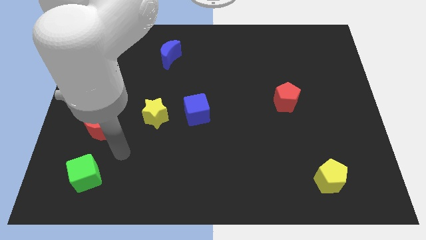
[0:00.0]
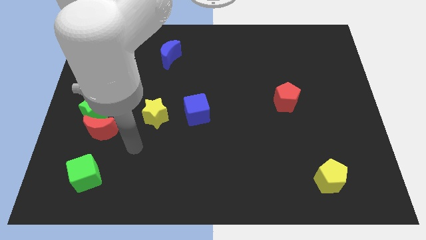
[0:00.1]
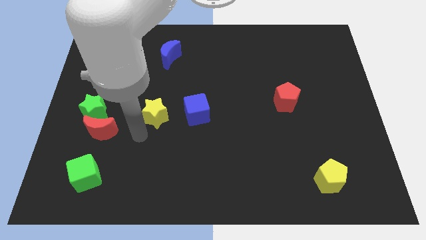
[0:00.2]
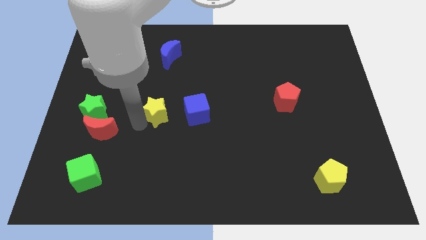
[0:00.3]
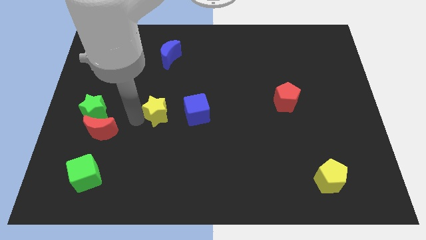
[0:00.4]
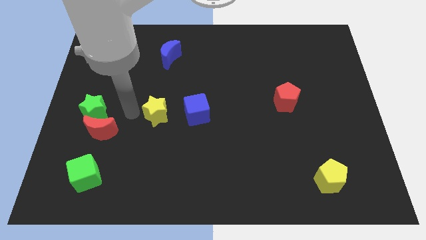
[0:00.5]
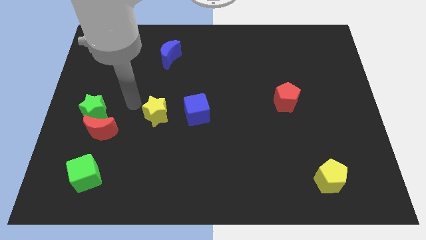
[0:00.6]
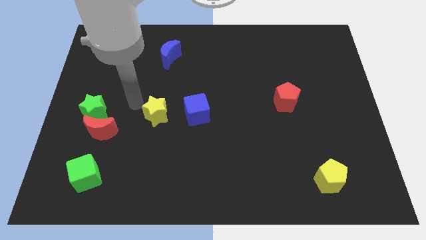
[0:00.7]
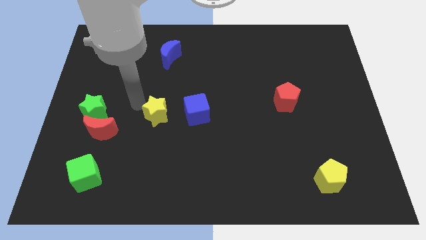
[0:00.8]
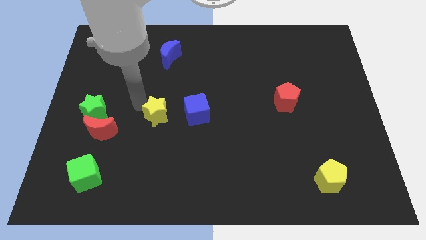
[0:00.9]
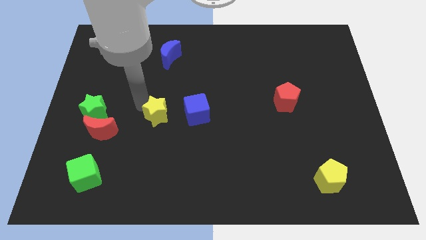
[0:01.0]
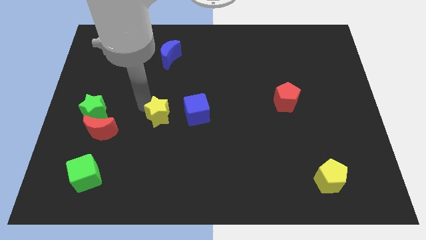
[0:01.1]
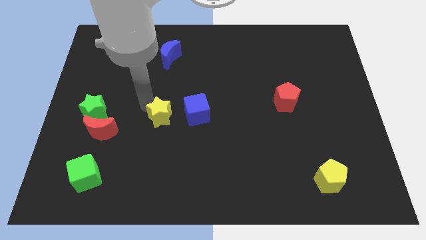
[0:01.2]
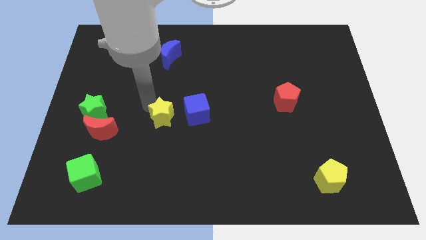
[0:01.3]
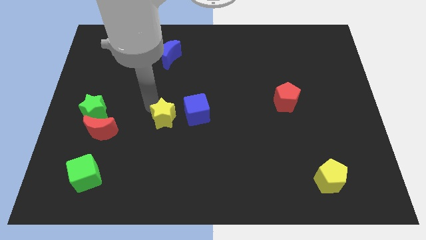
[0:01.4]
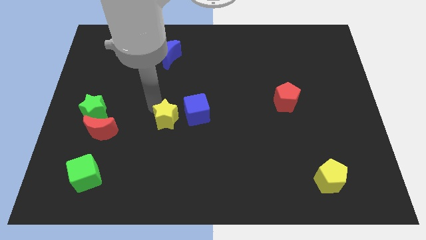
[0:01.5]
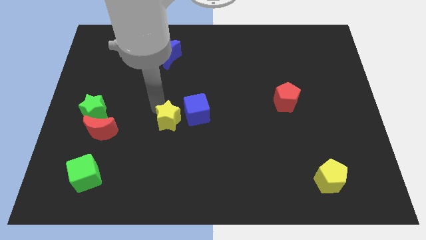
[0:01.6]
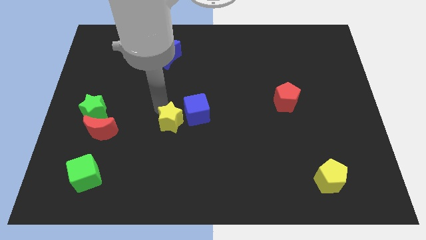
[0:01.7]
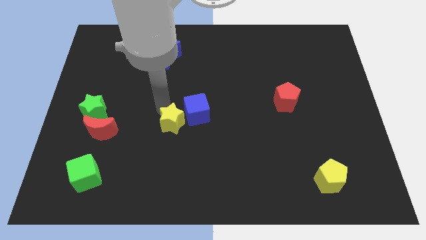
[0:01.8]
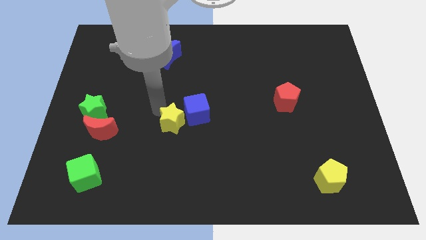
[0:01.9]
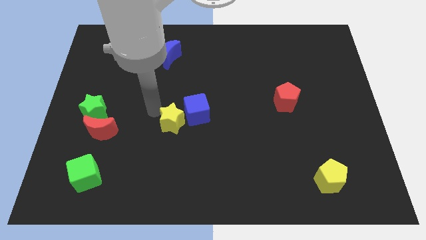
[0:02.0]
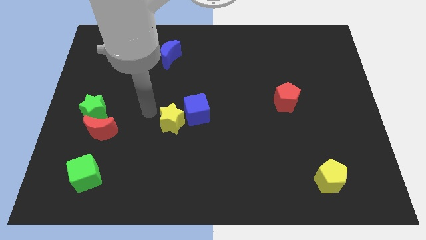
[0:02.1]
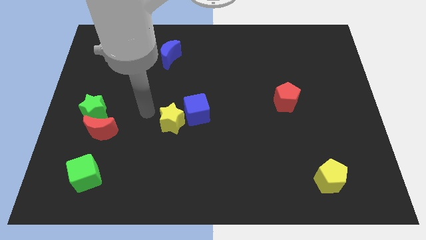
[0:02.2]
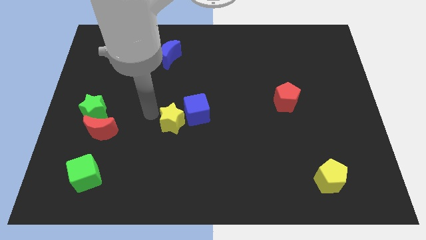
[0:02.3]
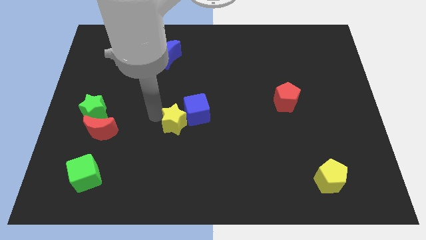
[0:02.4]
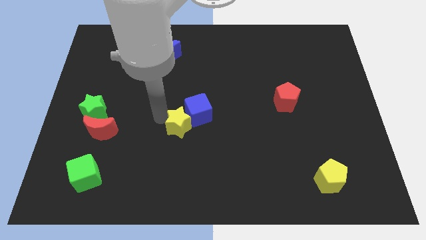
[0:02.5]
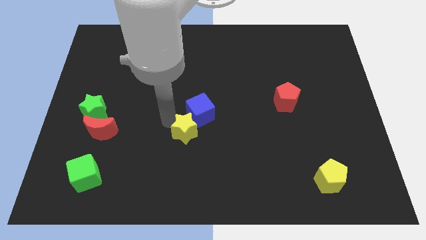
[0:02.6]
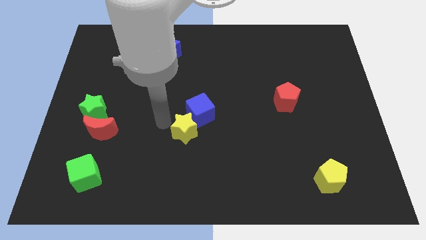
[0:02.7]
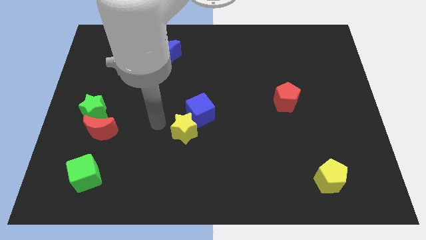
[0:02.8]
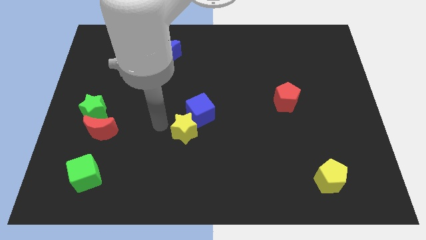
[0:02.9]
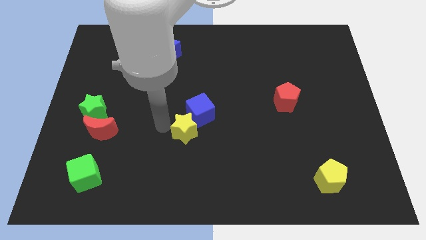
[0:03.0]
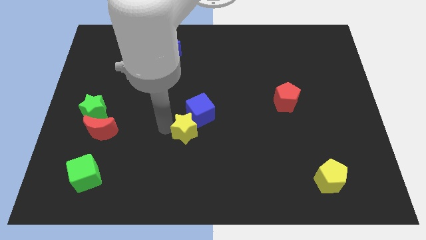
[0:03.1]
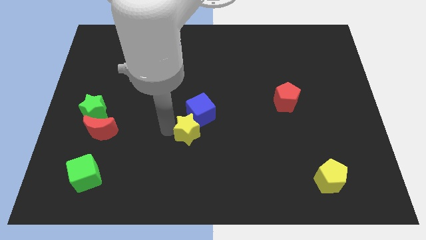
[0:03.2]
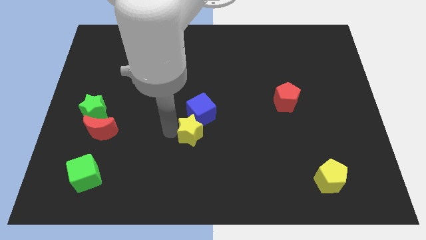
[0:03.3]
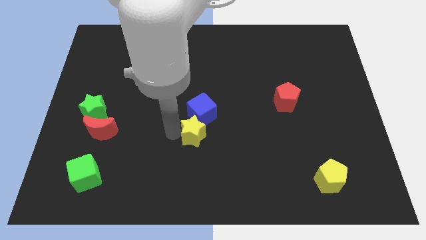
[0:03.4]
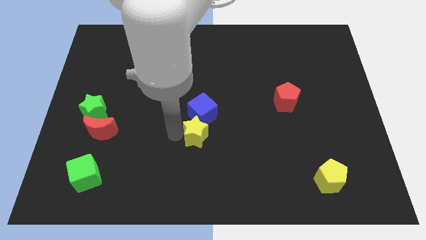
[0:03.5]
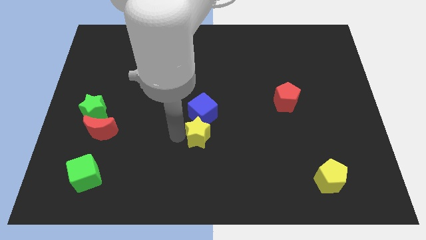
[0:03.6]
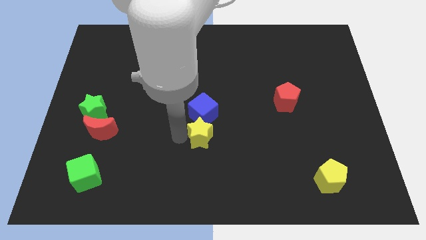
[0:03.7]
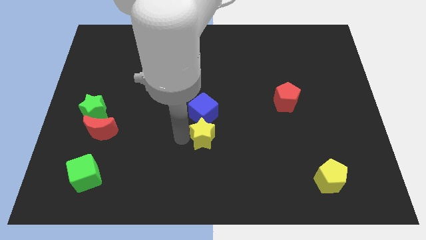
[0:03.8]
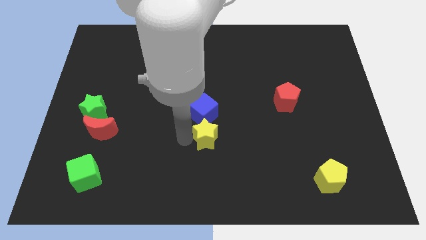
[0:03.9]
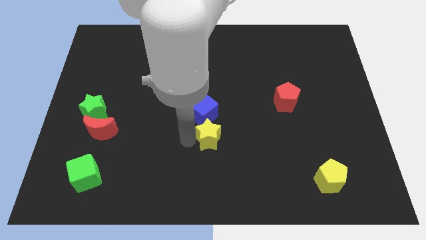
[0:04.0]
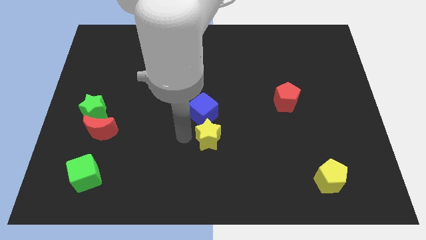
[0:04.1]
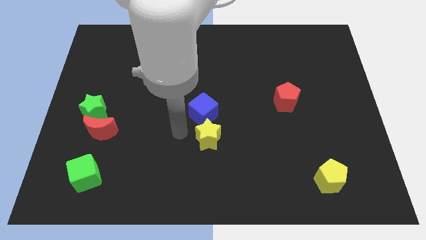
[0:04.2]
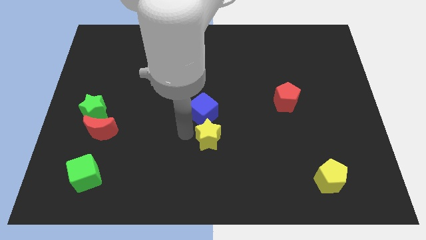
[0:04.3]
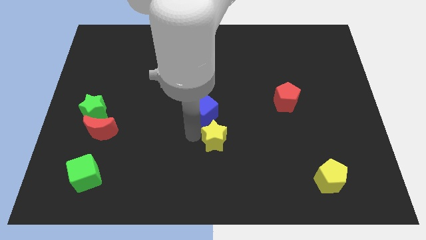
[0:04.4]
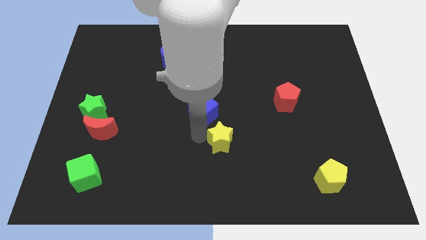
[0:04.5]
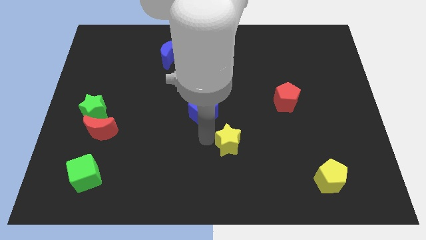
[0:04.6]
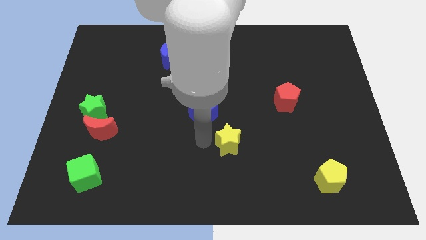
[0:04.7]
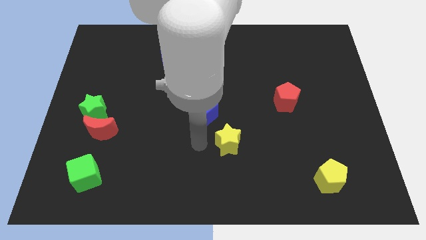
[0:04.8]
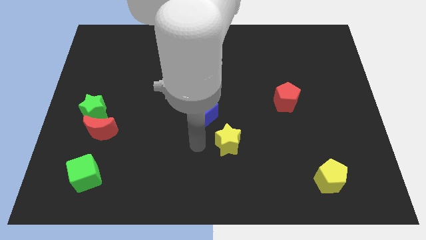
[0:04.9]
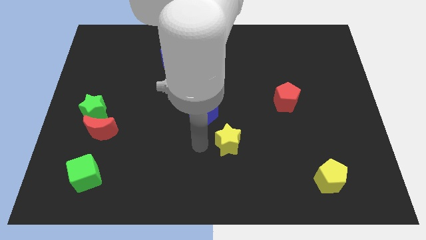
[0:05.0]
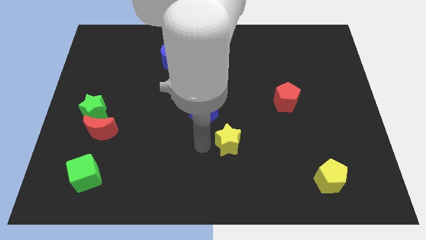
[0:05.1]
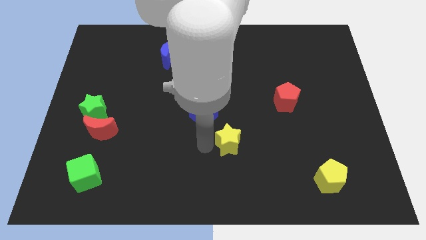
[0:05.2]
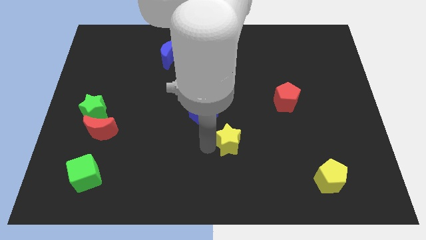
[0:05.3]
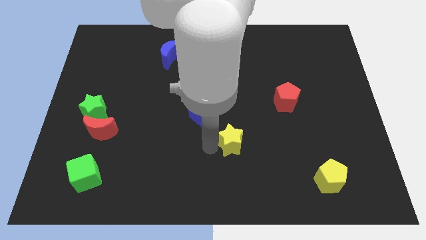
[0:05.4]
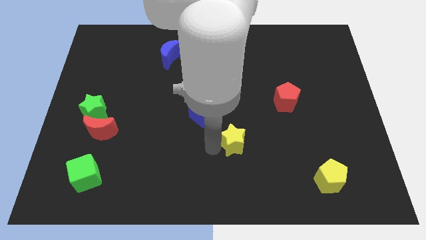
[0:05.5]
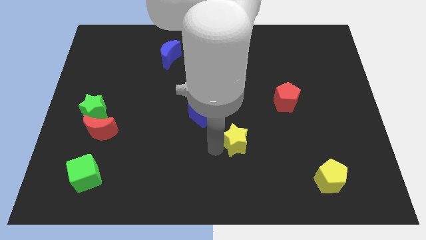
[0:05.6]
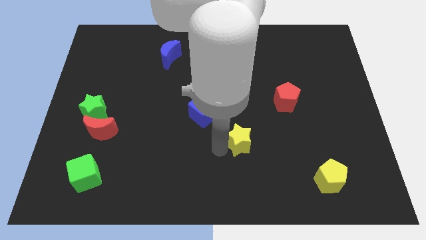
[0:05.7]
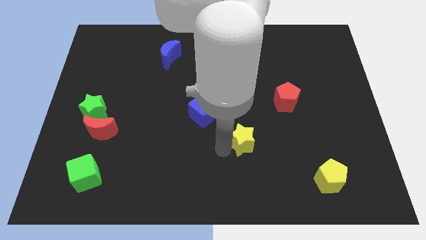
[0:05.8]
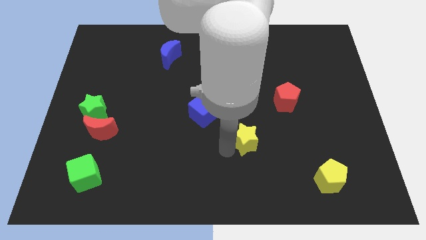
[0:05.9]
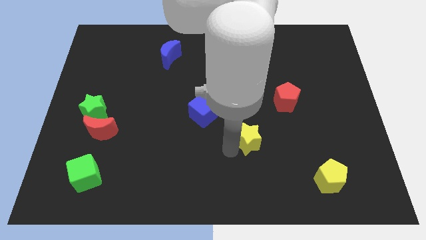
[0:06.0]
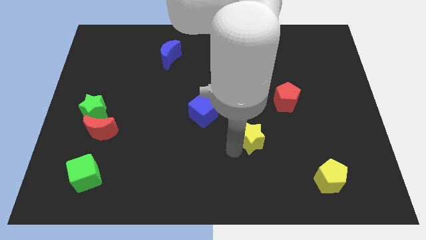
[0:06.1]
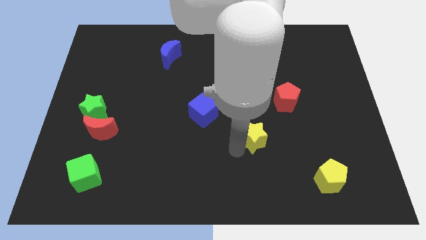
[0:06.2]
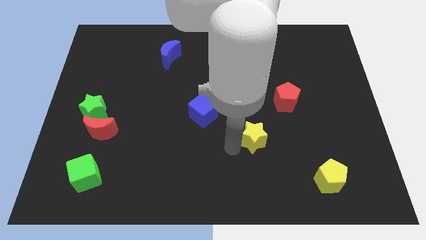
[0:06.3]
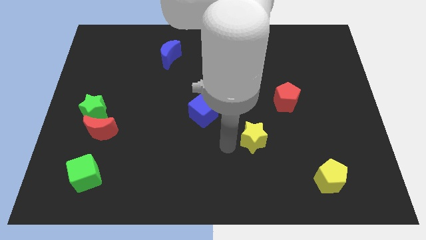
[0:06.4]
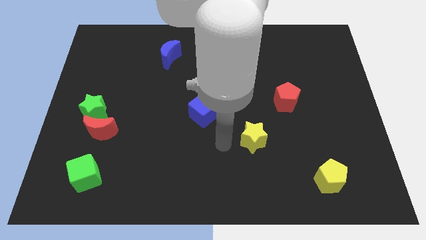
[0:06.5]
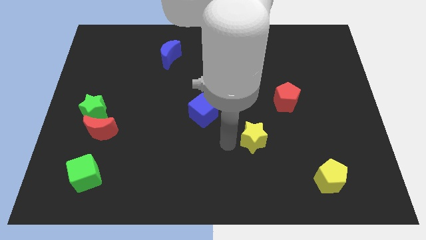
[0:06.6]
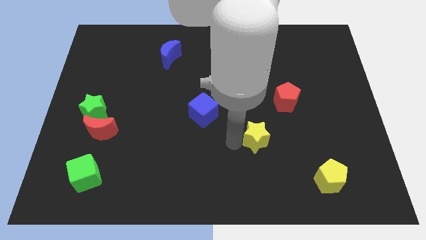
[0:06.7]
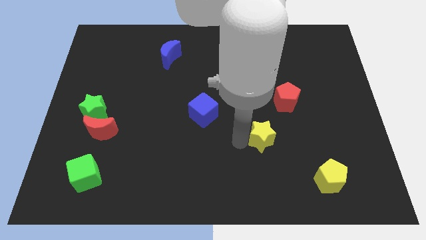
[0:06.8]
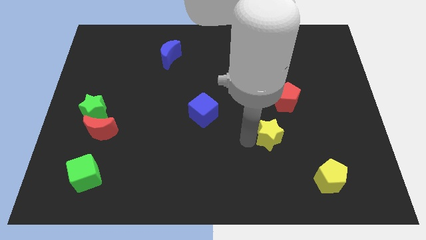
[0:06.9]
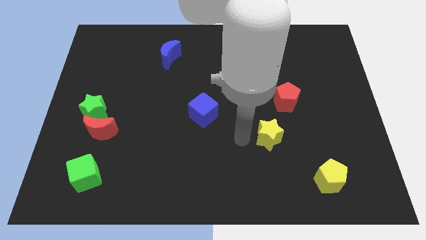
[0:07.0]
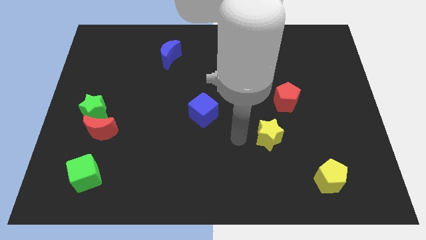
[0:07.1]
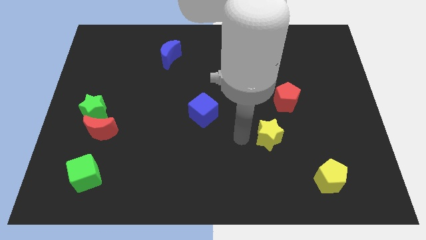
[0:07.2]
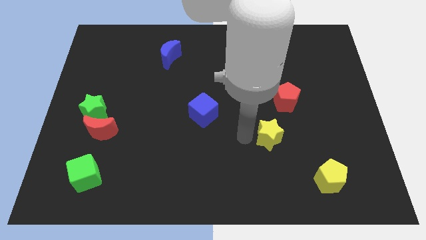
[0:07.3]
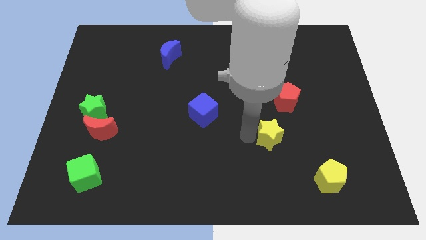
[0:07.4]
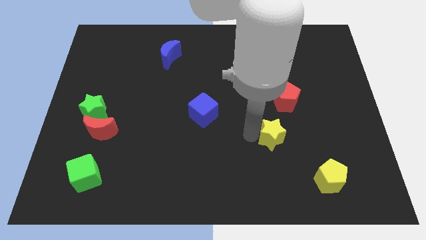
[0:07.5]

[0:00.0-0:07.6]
slide the yellow star to the bottom side of the red pentagon
